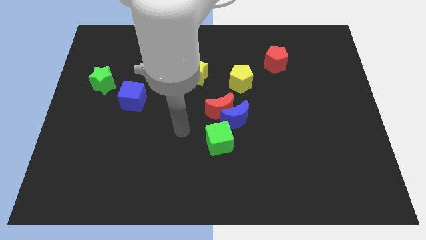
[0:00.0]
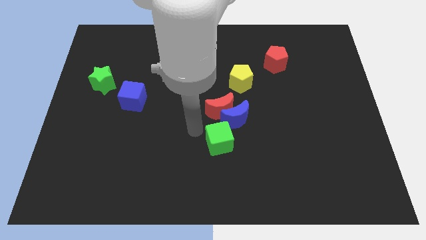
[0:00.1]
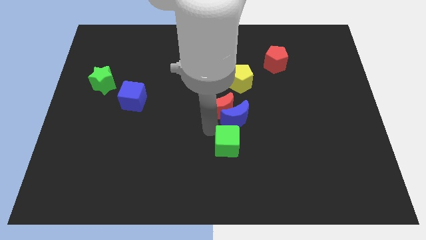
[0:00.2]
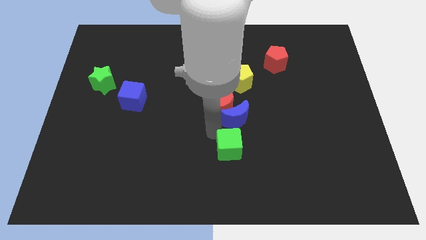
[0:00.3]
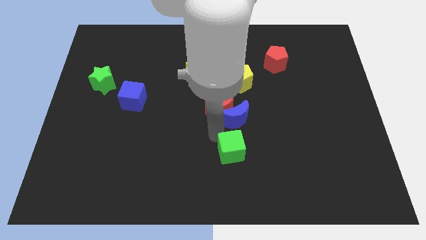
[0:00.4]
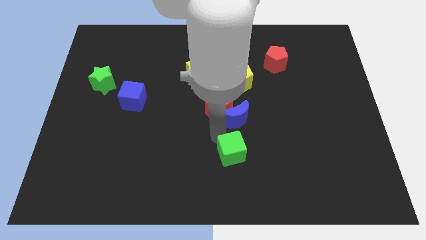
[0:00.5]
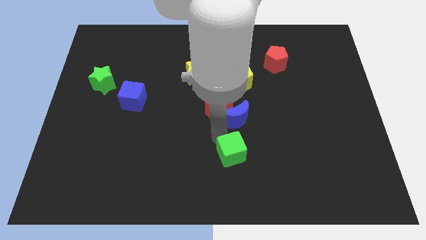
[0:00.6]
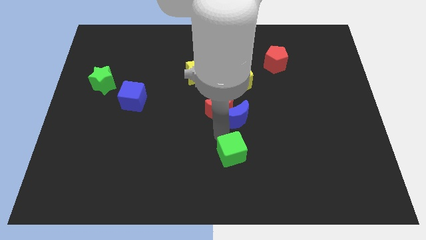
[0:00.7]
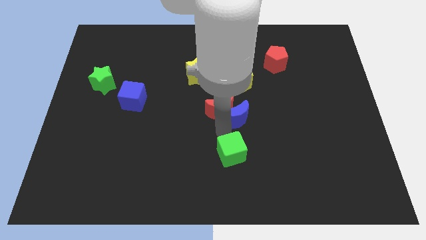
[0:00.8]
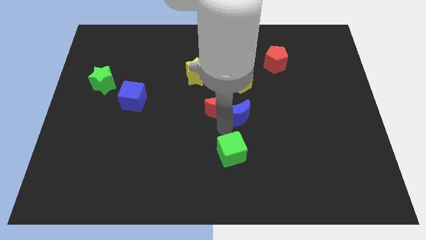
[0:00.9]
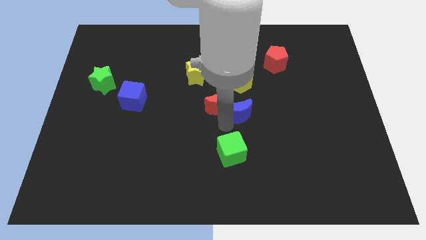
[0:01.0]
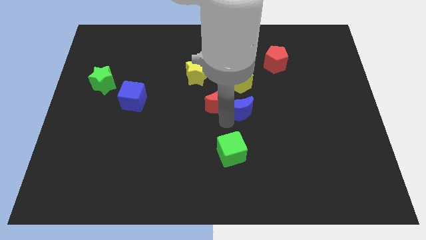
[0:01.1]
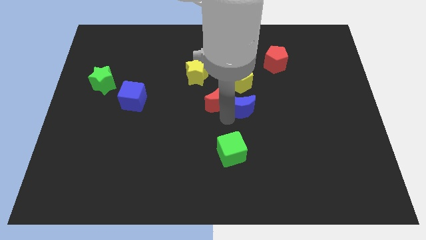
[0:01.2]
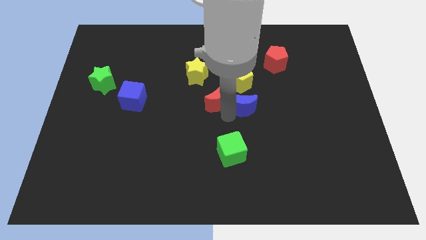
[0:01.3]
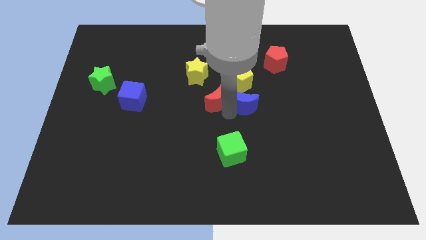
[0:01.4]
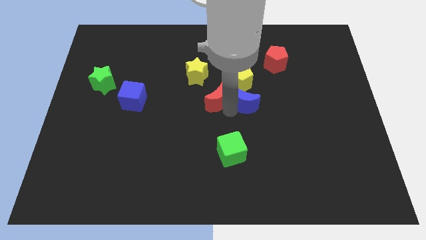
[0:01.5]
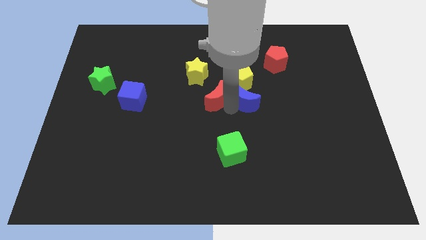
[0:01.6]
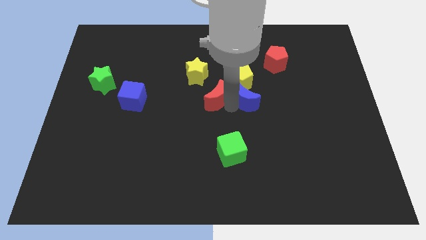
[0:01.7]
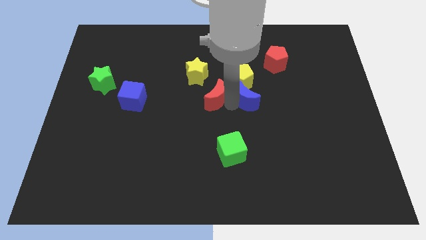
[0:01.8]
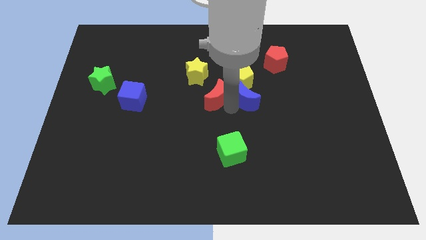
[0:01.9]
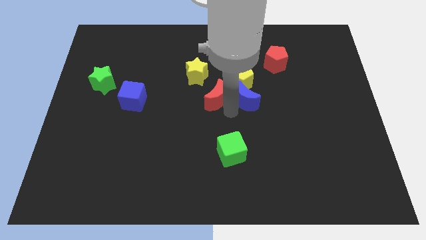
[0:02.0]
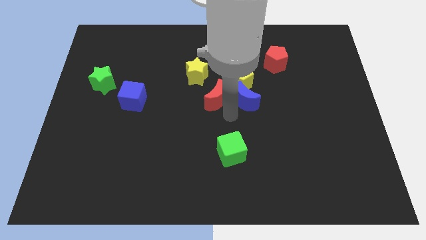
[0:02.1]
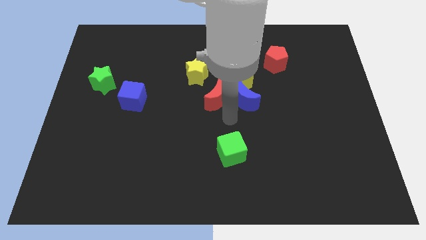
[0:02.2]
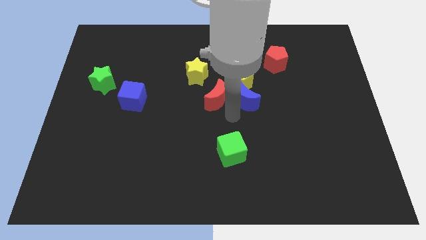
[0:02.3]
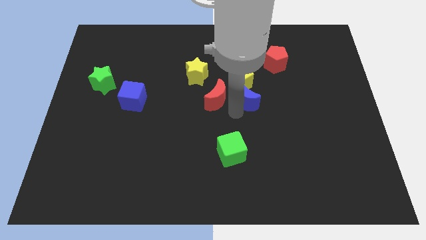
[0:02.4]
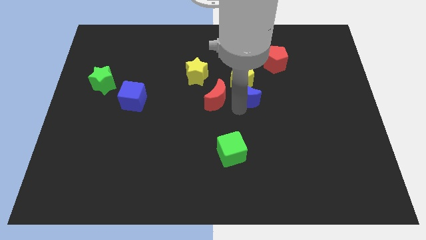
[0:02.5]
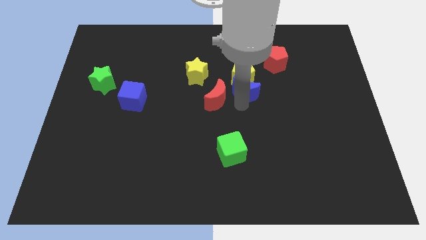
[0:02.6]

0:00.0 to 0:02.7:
pull the blue moon apart from the red moon and green cube

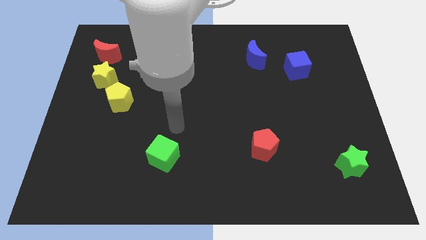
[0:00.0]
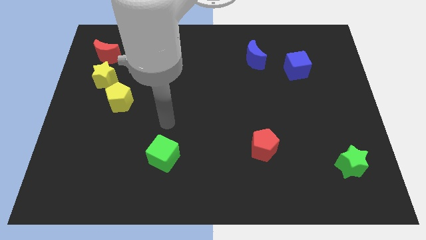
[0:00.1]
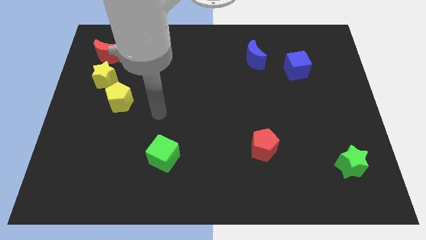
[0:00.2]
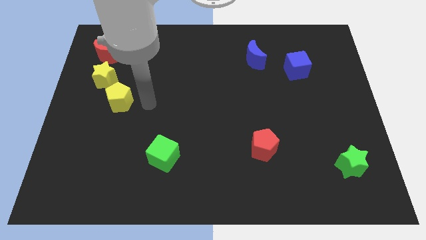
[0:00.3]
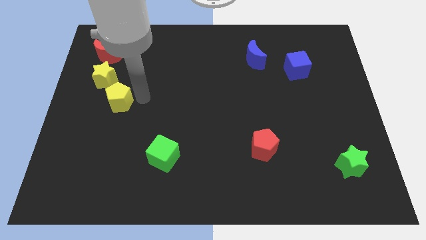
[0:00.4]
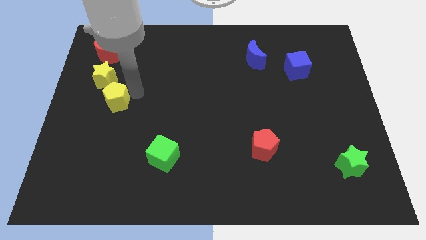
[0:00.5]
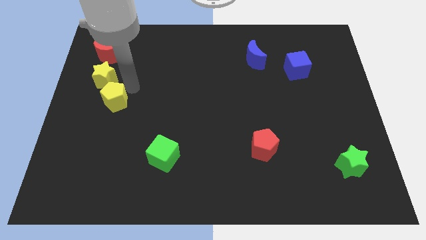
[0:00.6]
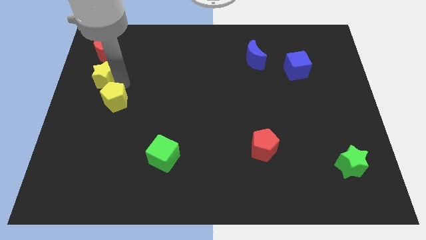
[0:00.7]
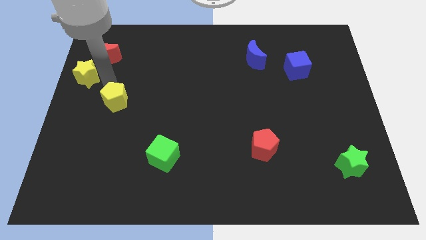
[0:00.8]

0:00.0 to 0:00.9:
pull the yellow pentagon apart from the yellow star

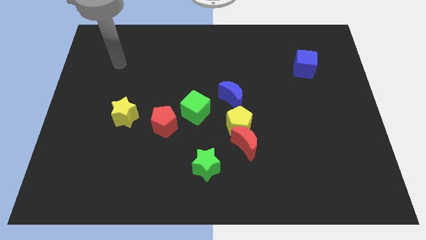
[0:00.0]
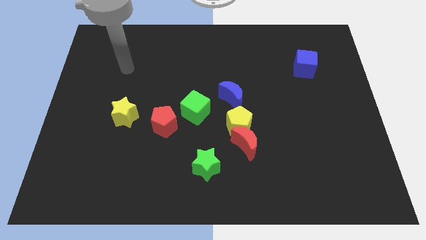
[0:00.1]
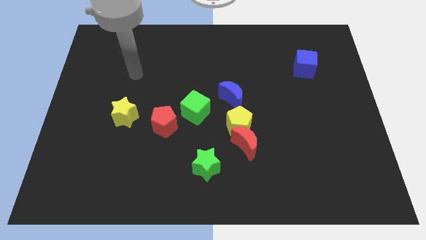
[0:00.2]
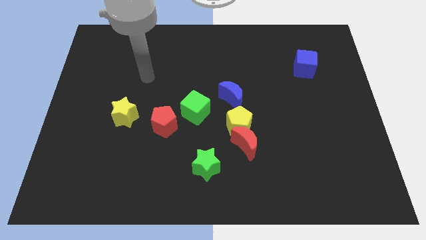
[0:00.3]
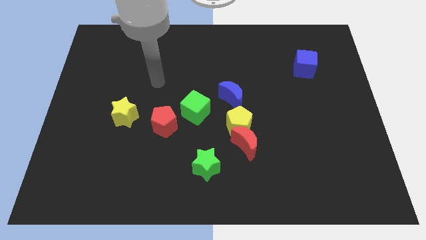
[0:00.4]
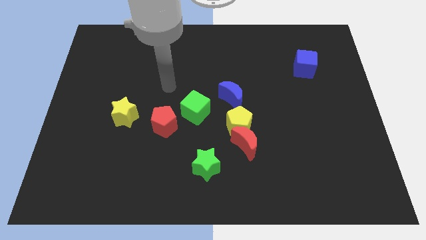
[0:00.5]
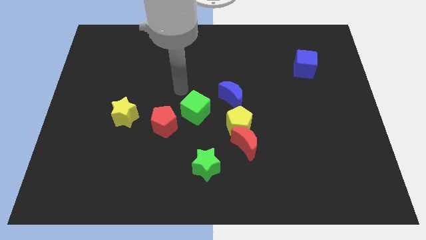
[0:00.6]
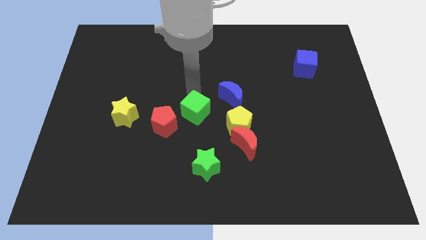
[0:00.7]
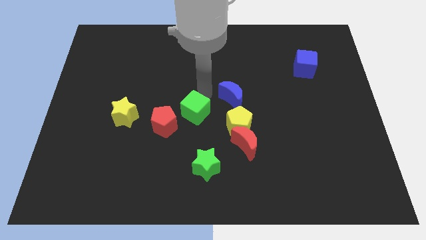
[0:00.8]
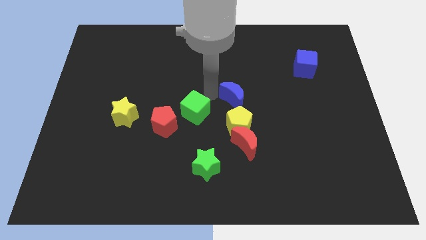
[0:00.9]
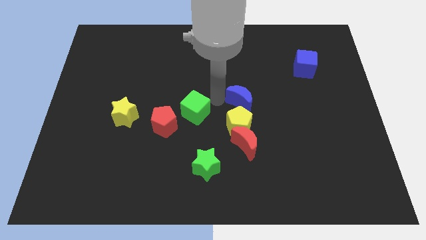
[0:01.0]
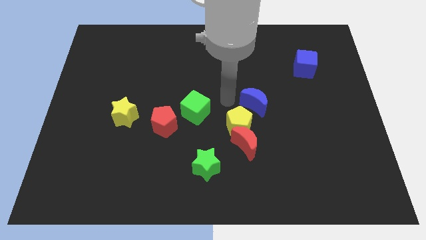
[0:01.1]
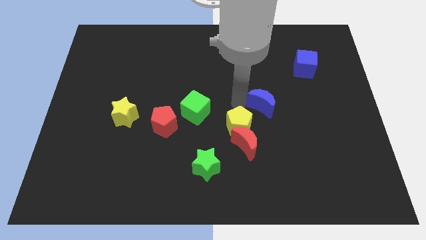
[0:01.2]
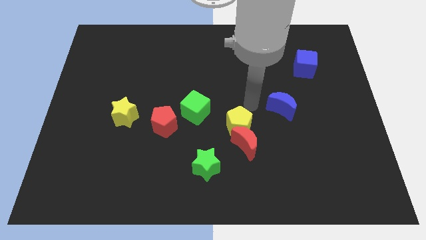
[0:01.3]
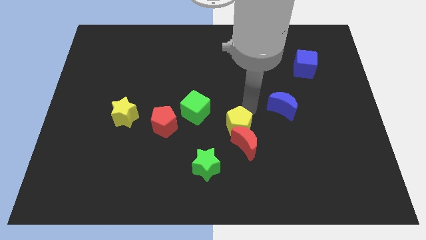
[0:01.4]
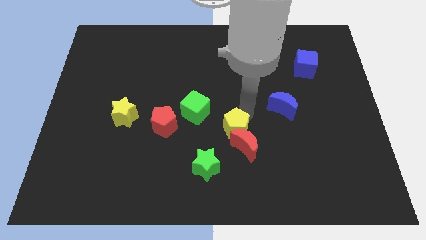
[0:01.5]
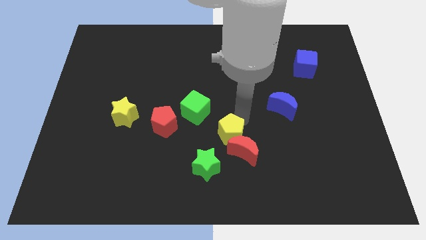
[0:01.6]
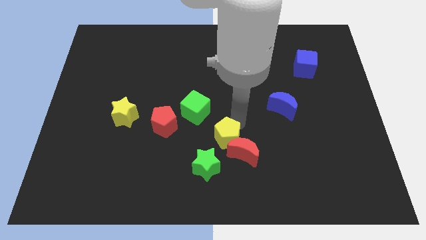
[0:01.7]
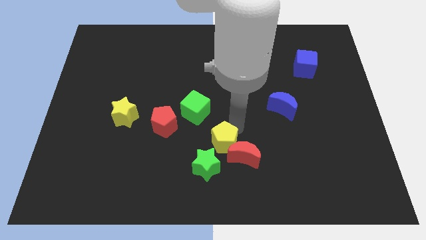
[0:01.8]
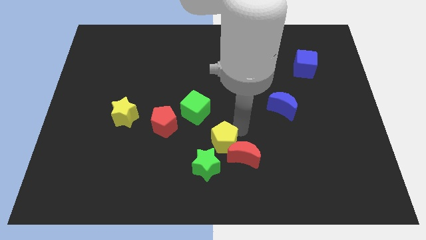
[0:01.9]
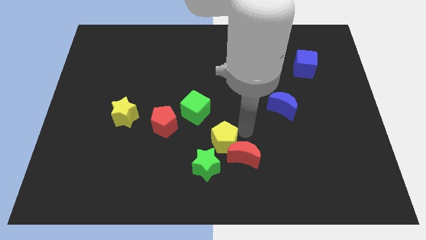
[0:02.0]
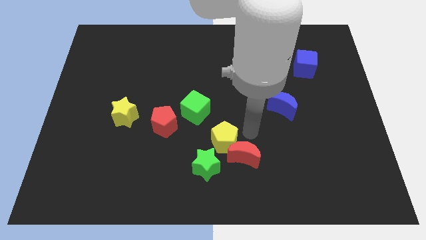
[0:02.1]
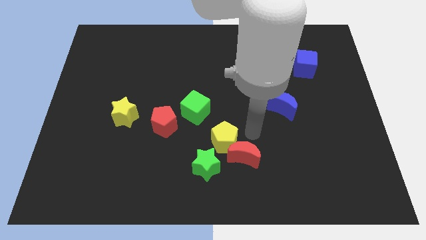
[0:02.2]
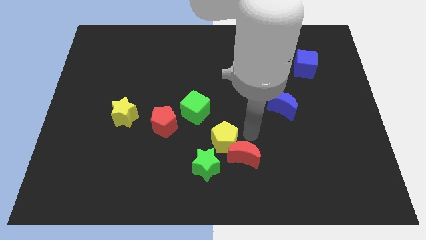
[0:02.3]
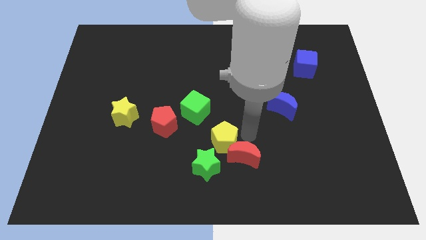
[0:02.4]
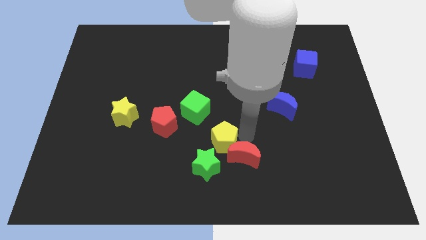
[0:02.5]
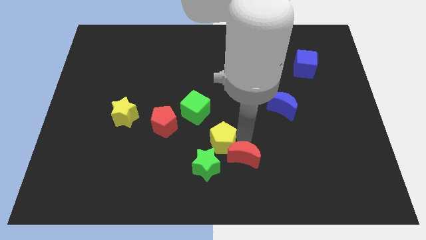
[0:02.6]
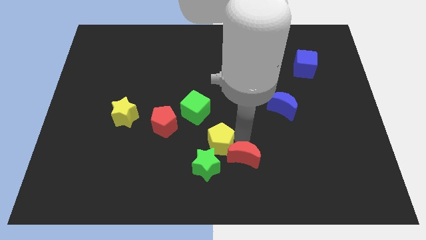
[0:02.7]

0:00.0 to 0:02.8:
separate the yellow pentagon from the red moon and blue moon

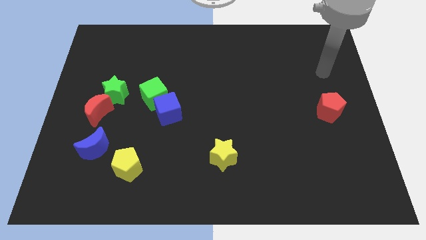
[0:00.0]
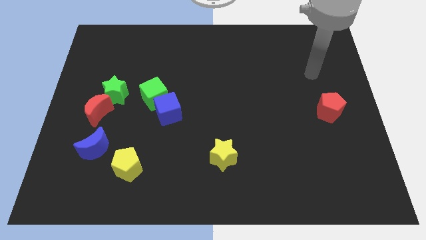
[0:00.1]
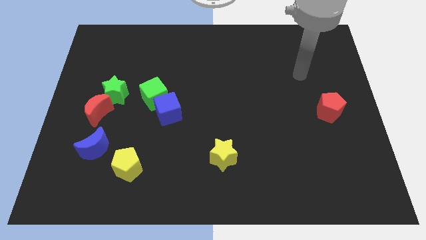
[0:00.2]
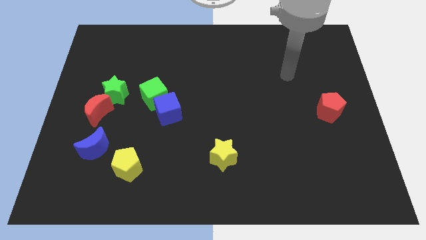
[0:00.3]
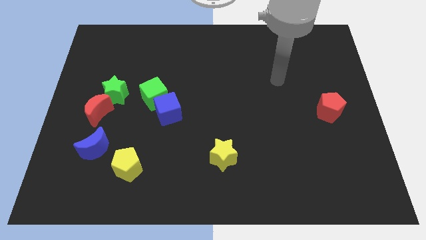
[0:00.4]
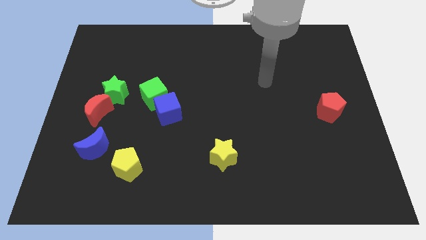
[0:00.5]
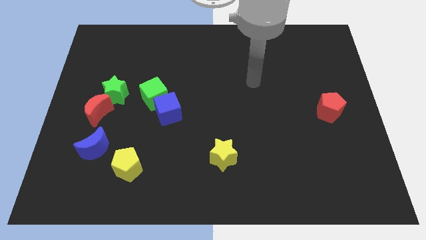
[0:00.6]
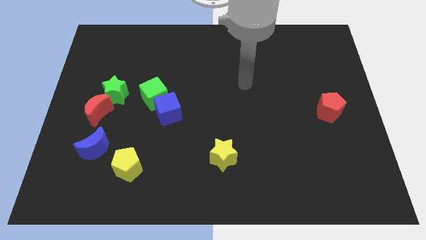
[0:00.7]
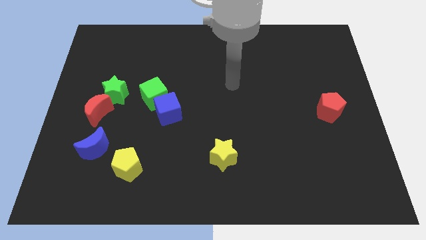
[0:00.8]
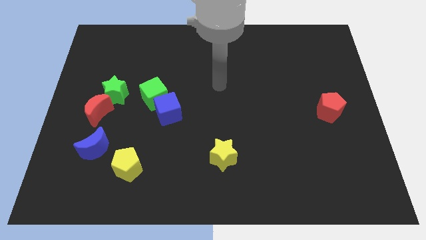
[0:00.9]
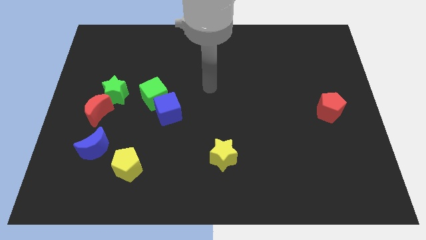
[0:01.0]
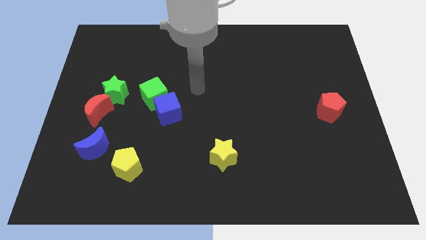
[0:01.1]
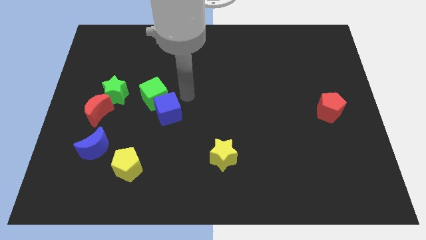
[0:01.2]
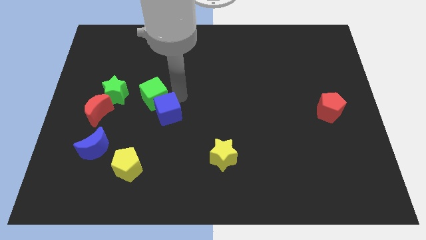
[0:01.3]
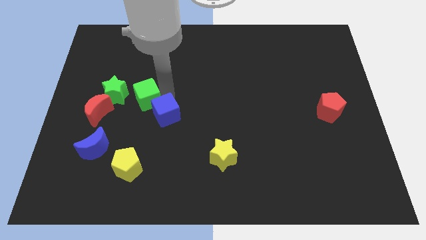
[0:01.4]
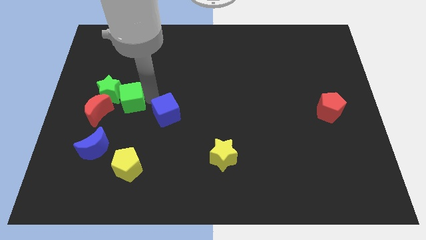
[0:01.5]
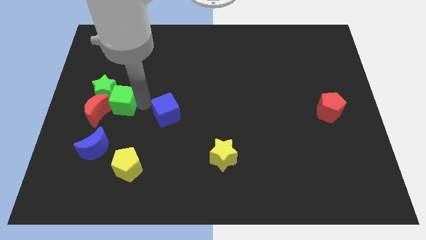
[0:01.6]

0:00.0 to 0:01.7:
move the blue cube away from the green cube

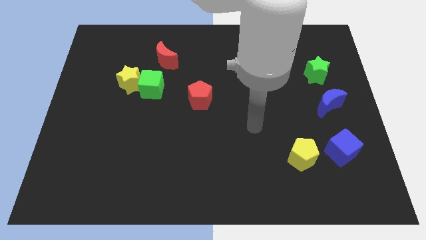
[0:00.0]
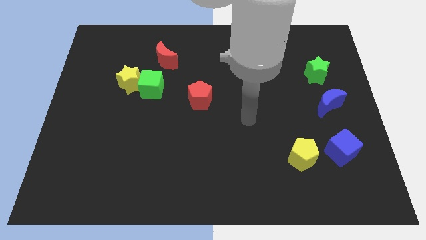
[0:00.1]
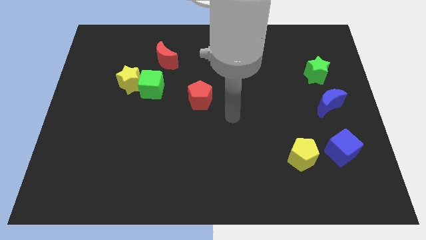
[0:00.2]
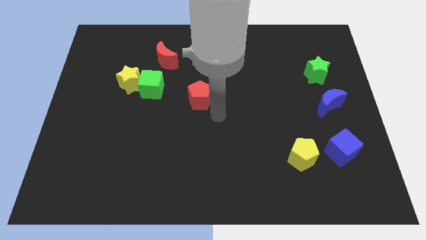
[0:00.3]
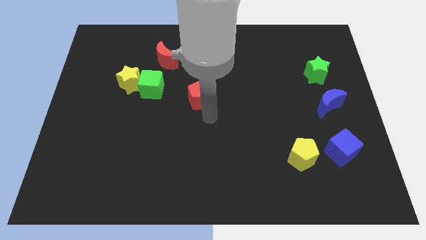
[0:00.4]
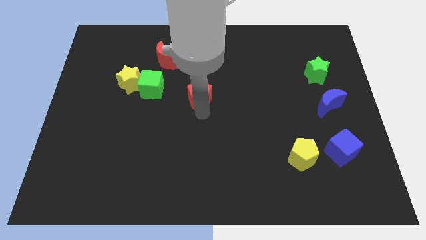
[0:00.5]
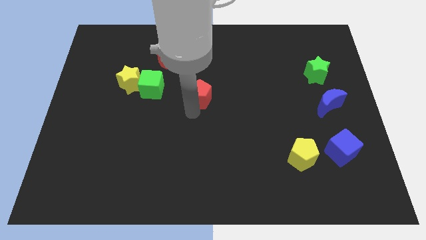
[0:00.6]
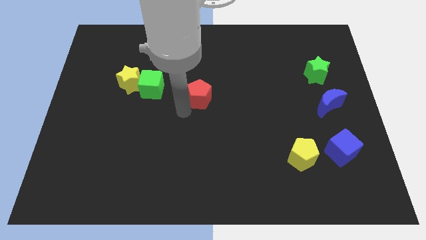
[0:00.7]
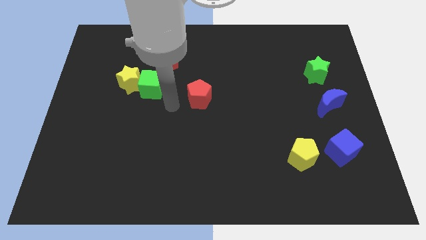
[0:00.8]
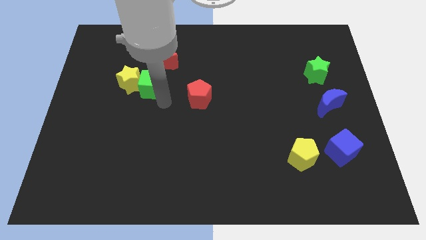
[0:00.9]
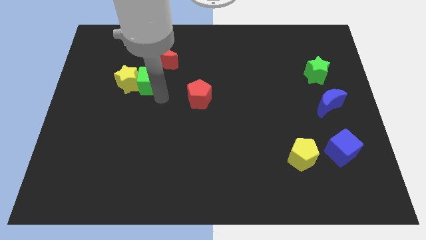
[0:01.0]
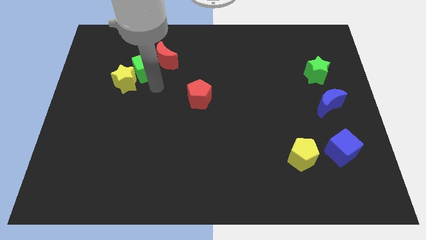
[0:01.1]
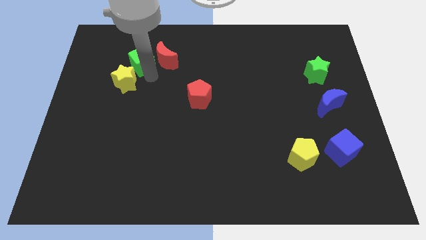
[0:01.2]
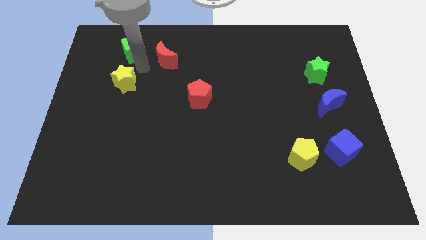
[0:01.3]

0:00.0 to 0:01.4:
separate the yellow star from the green cube

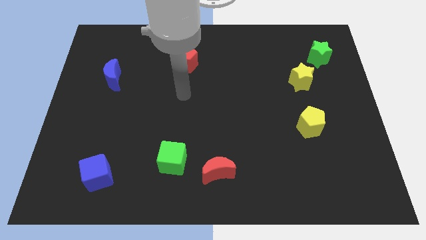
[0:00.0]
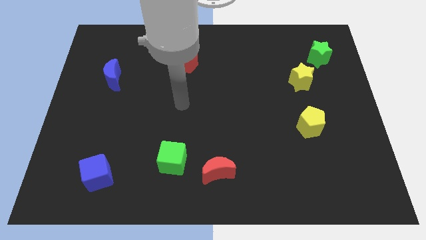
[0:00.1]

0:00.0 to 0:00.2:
separate the red moon from the green cube
